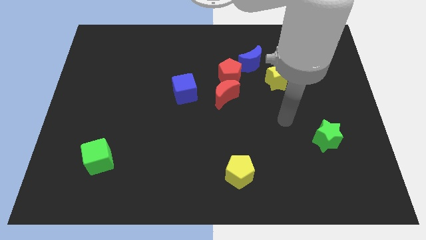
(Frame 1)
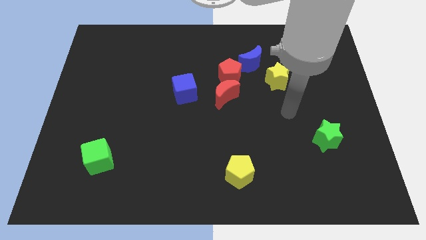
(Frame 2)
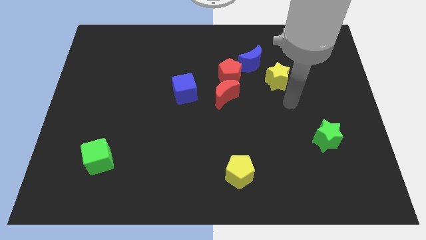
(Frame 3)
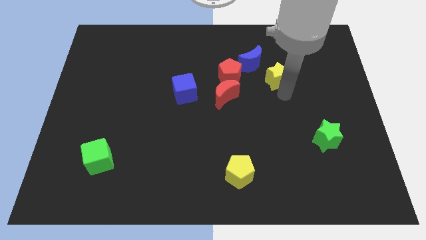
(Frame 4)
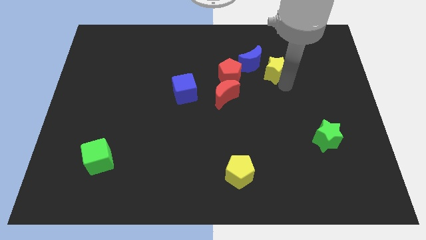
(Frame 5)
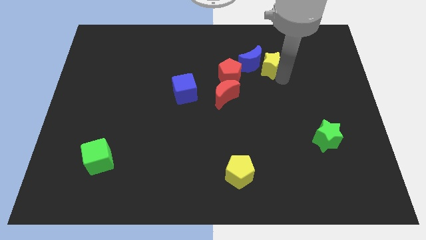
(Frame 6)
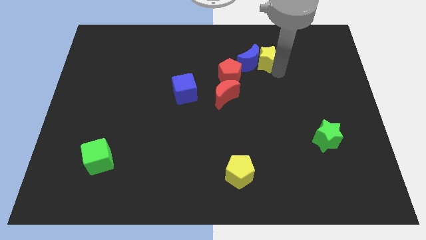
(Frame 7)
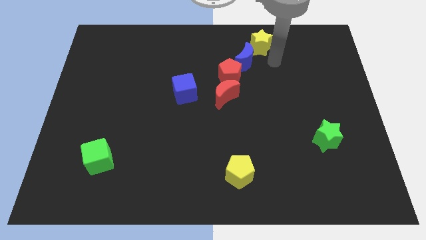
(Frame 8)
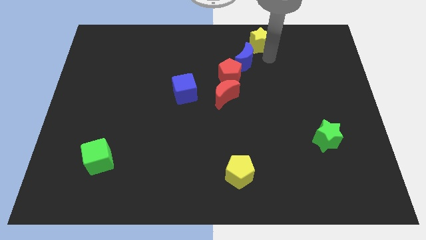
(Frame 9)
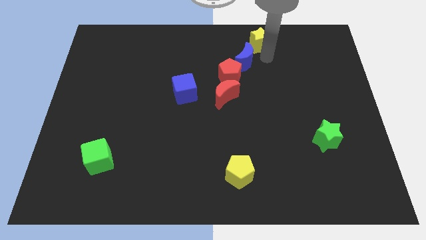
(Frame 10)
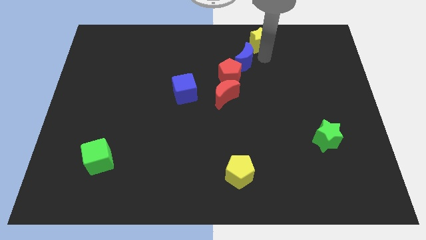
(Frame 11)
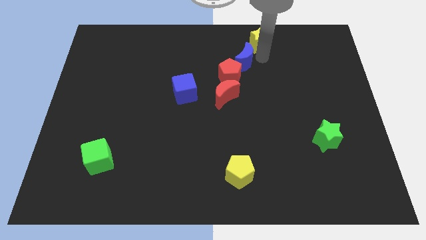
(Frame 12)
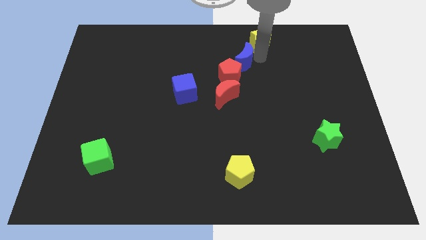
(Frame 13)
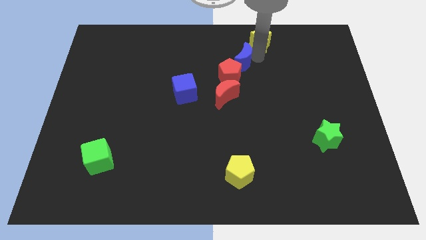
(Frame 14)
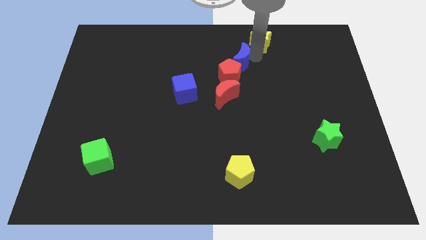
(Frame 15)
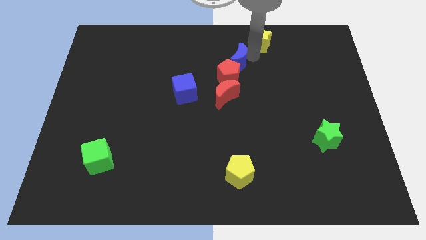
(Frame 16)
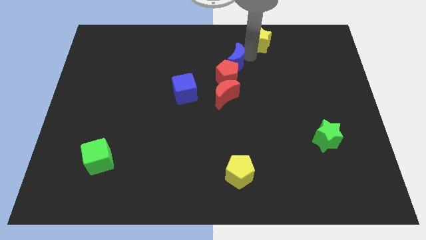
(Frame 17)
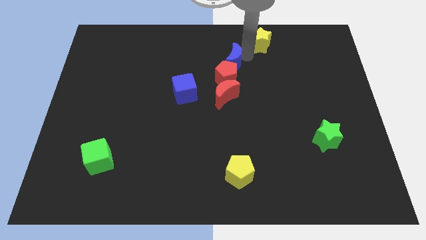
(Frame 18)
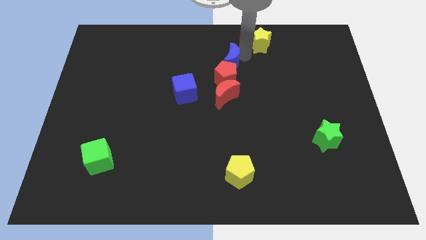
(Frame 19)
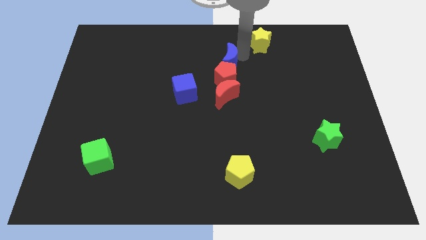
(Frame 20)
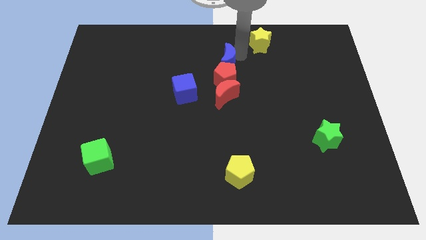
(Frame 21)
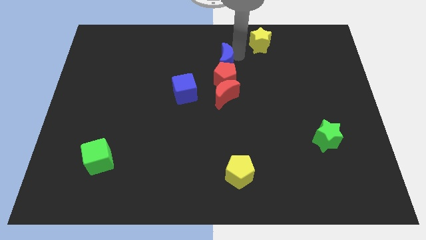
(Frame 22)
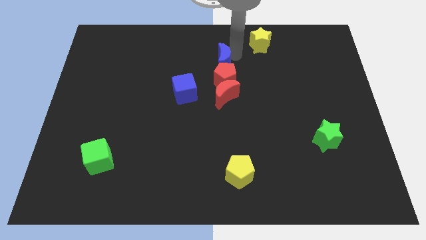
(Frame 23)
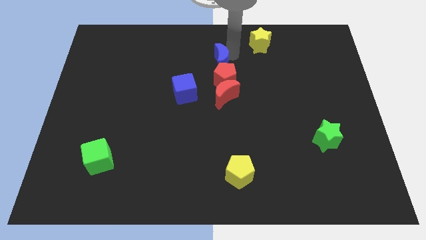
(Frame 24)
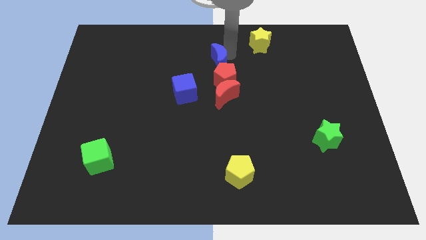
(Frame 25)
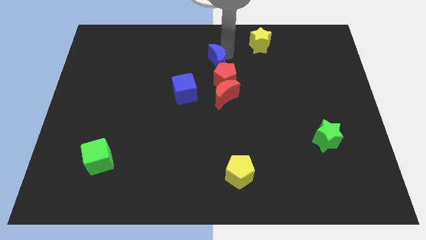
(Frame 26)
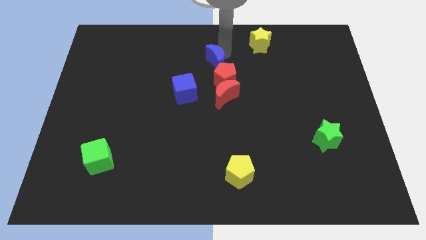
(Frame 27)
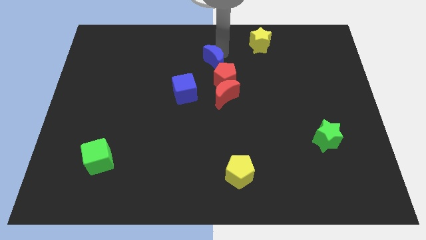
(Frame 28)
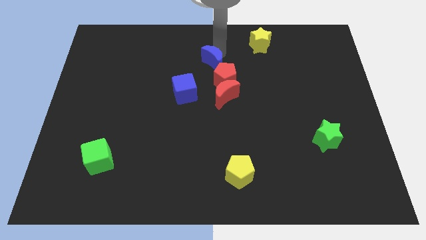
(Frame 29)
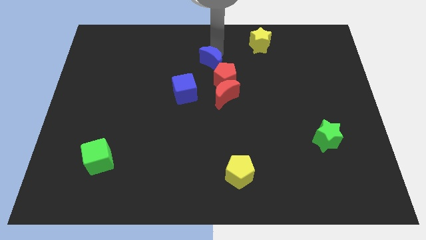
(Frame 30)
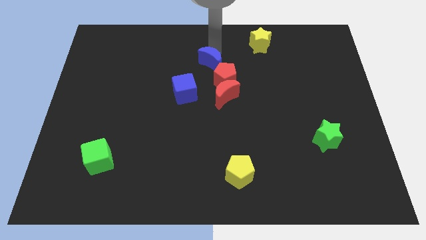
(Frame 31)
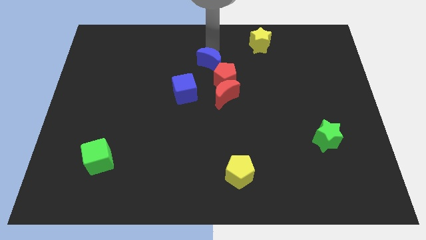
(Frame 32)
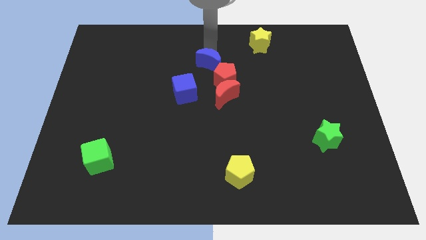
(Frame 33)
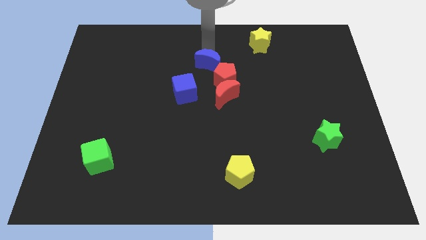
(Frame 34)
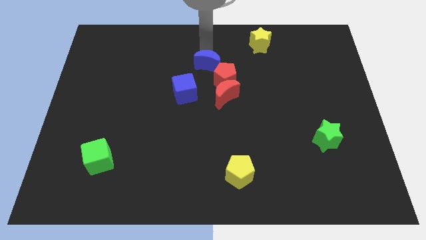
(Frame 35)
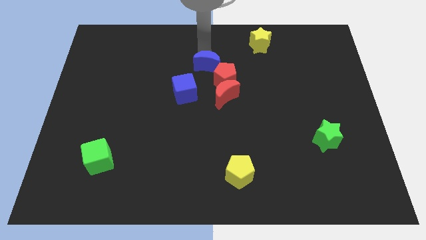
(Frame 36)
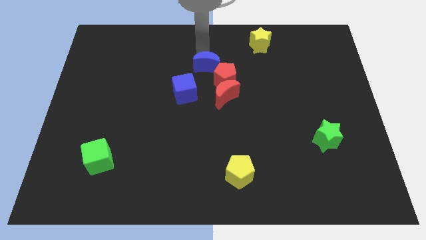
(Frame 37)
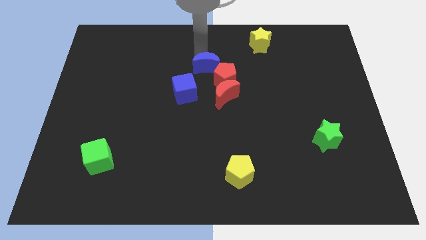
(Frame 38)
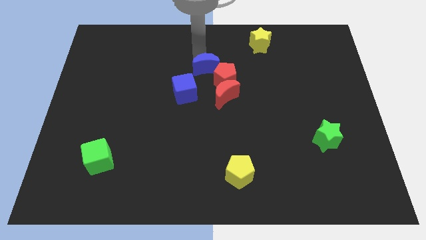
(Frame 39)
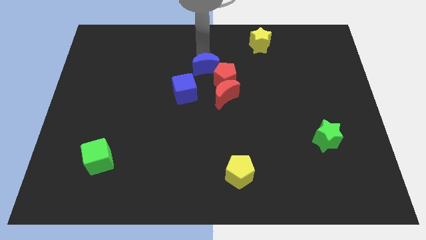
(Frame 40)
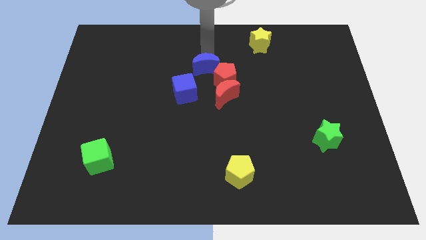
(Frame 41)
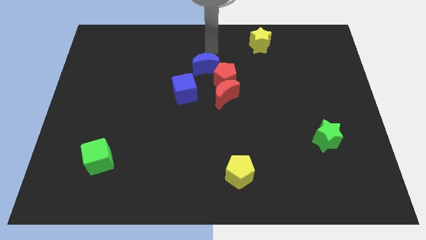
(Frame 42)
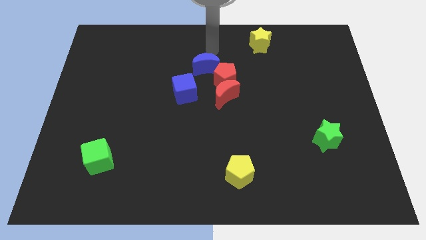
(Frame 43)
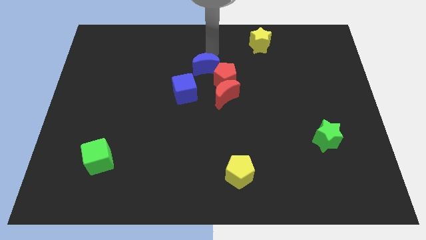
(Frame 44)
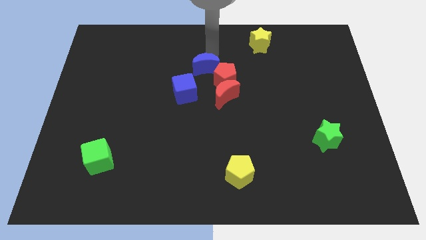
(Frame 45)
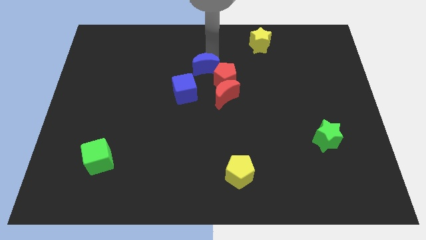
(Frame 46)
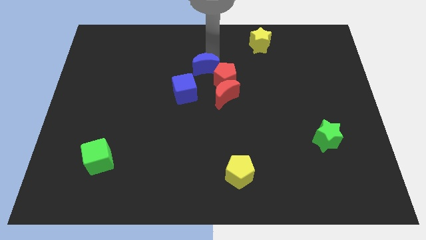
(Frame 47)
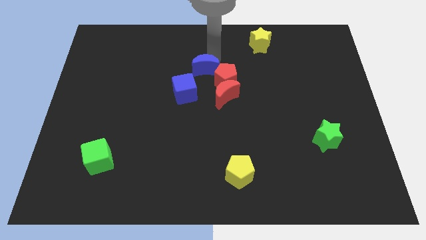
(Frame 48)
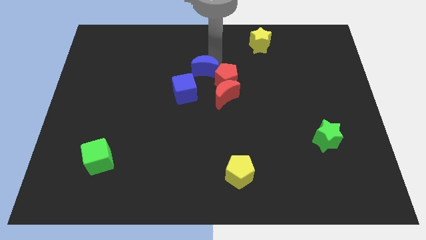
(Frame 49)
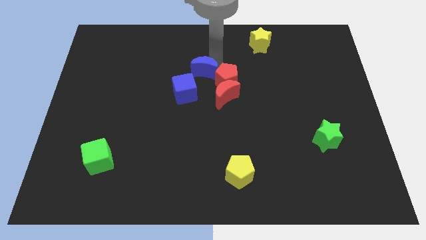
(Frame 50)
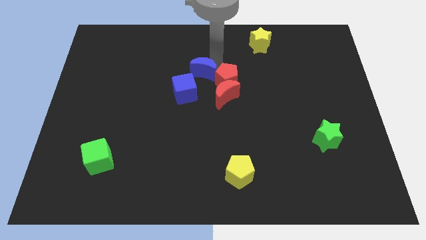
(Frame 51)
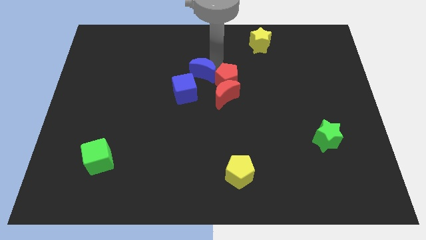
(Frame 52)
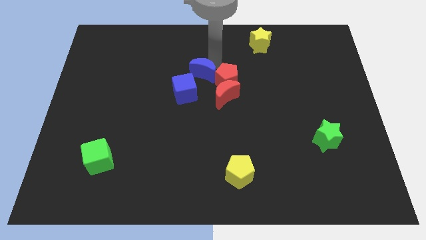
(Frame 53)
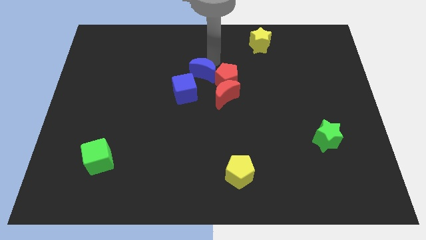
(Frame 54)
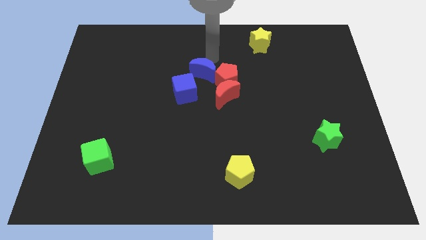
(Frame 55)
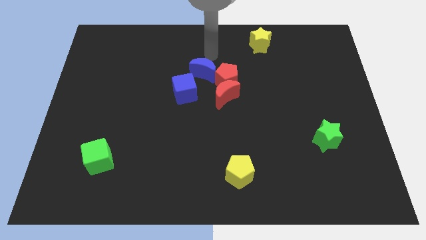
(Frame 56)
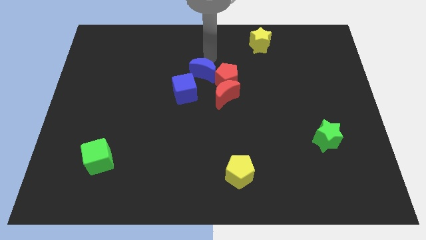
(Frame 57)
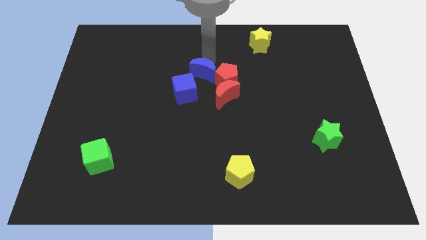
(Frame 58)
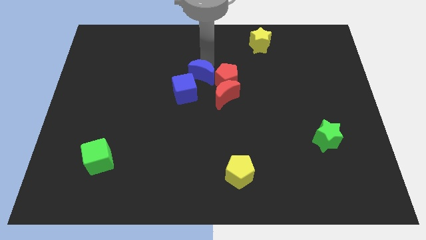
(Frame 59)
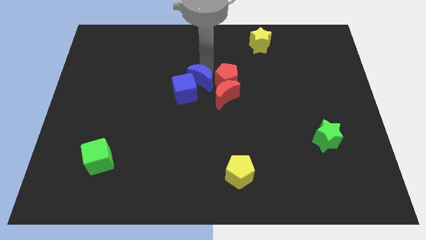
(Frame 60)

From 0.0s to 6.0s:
slide the blue moon towards the blue cube

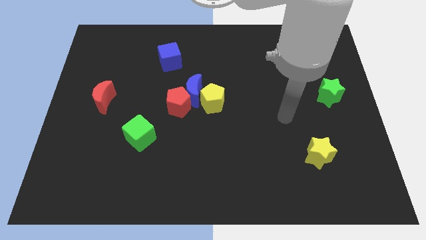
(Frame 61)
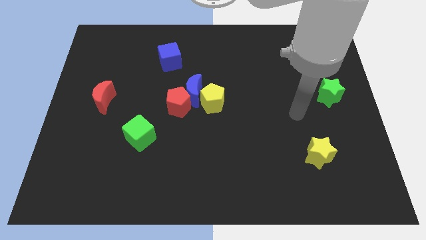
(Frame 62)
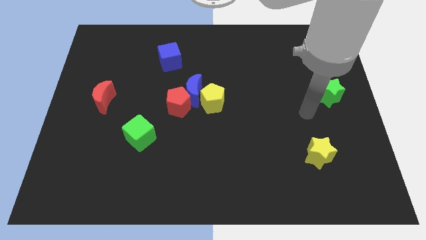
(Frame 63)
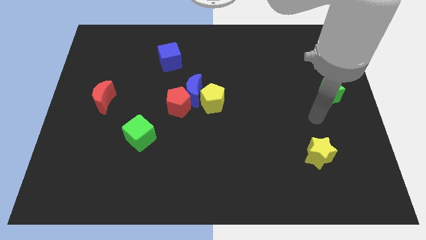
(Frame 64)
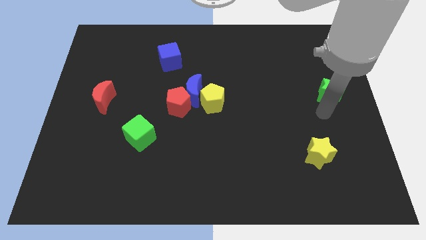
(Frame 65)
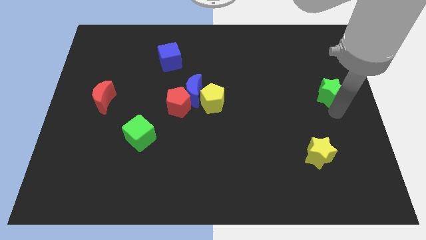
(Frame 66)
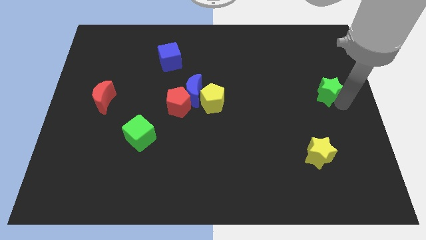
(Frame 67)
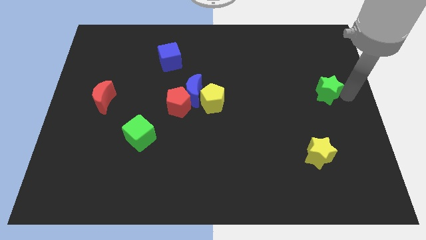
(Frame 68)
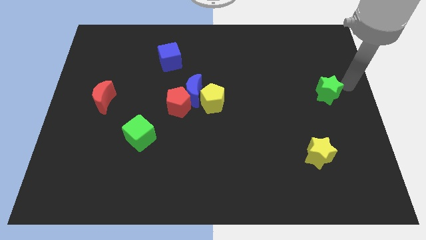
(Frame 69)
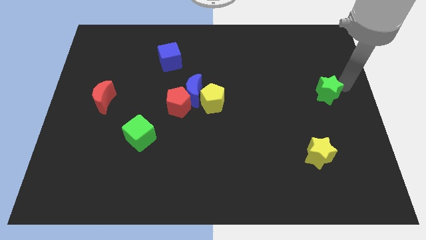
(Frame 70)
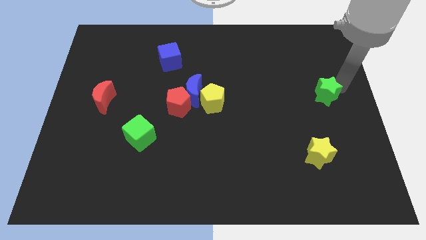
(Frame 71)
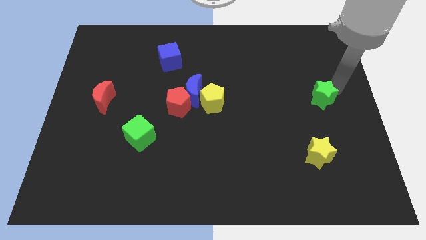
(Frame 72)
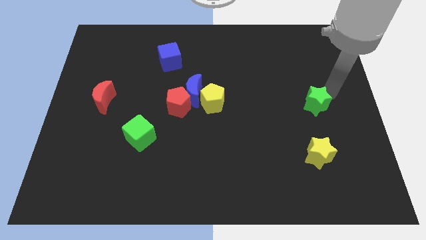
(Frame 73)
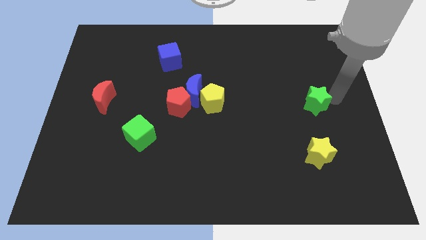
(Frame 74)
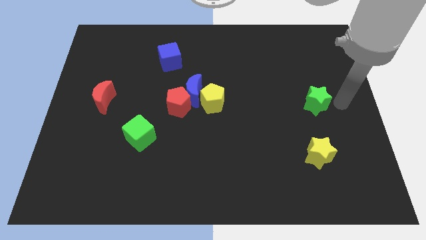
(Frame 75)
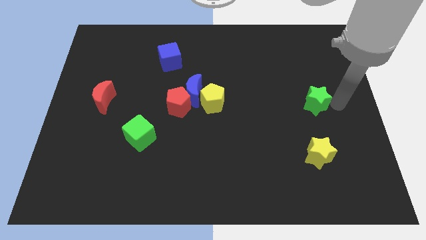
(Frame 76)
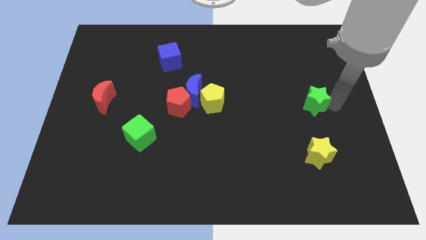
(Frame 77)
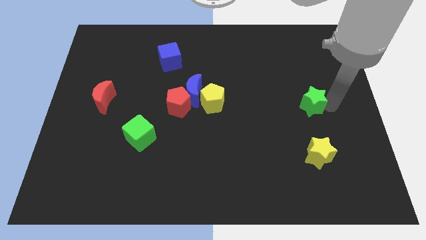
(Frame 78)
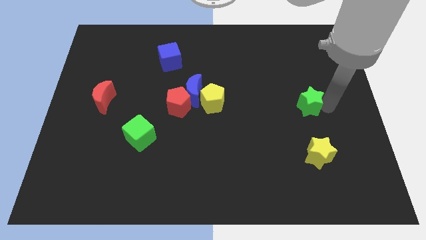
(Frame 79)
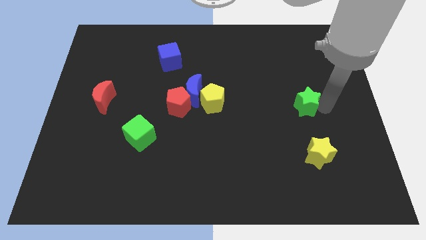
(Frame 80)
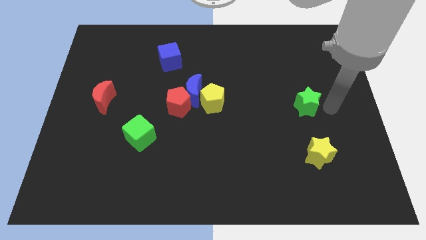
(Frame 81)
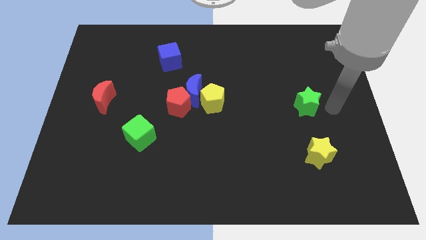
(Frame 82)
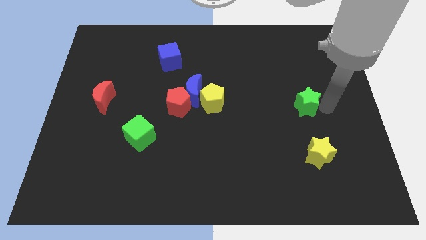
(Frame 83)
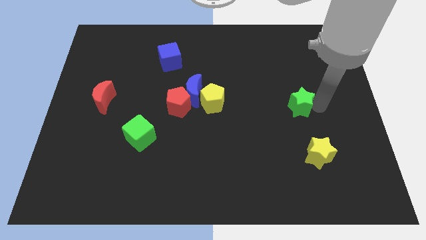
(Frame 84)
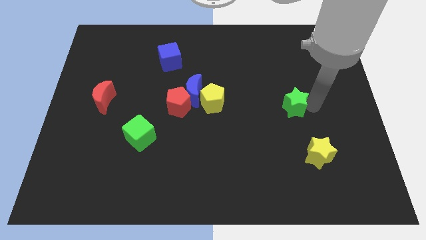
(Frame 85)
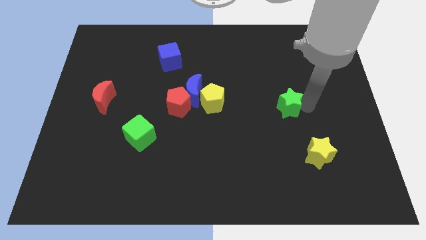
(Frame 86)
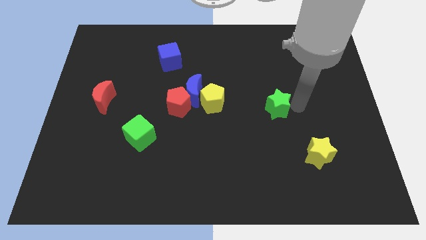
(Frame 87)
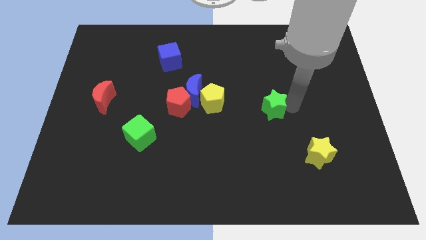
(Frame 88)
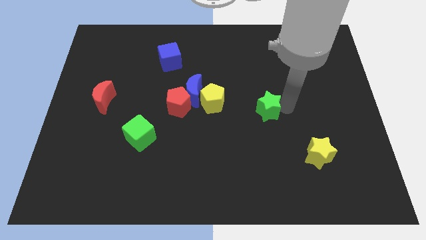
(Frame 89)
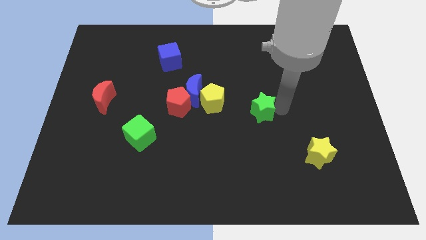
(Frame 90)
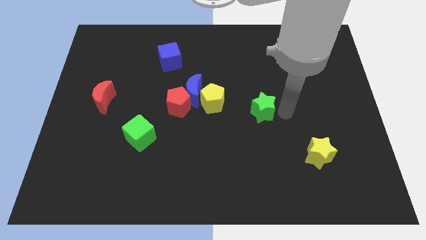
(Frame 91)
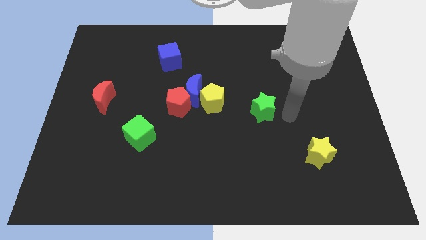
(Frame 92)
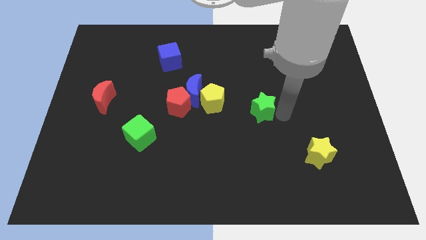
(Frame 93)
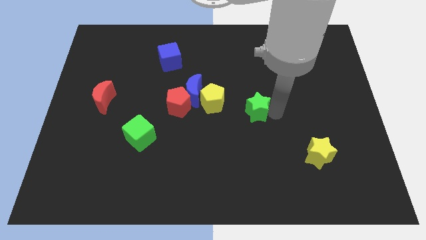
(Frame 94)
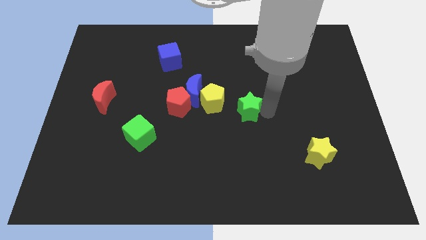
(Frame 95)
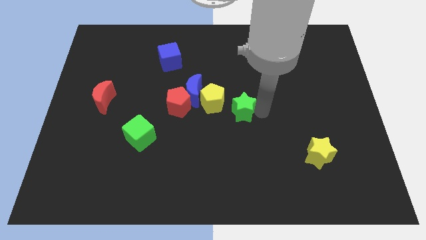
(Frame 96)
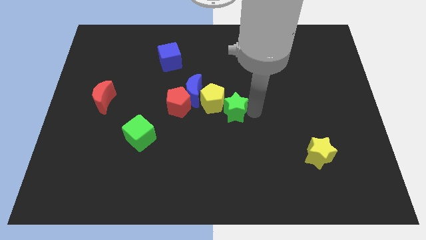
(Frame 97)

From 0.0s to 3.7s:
put the green star next to the yellow pentagon
